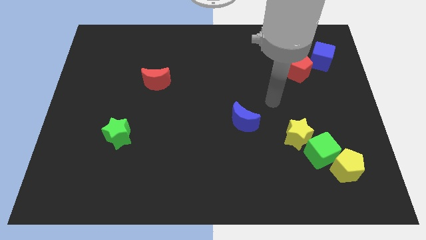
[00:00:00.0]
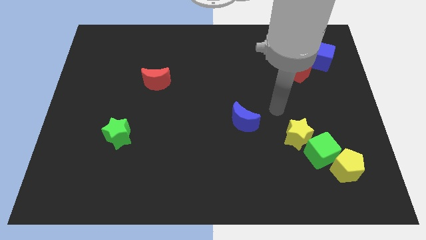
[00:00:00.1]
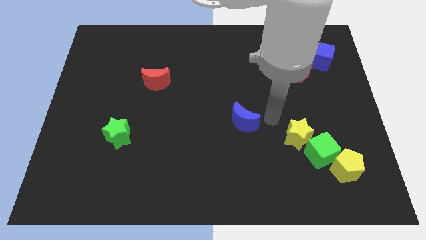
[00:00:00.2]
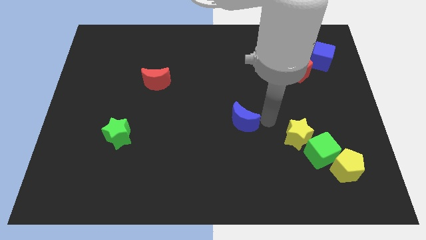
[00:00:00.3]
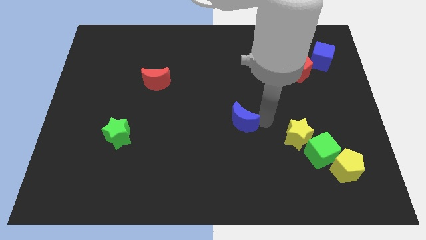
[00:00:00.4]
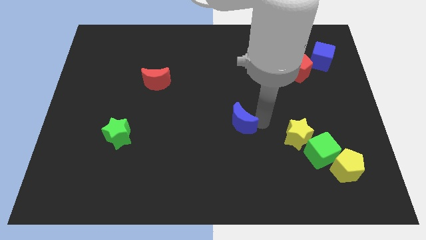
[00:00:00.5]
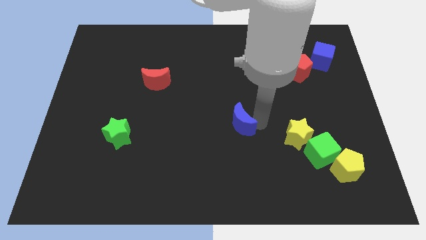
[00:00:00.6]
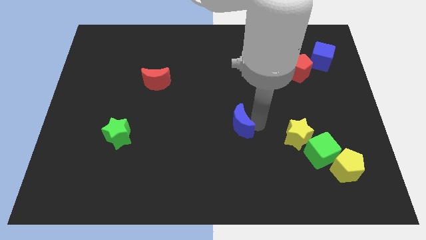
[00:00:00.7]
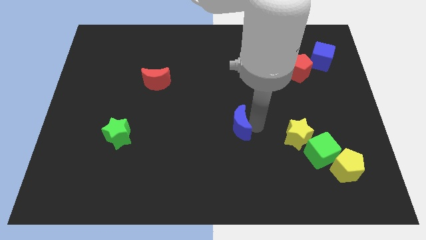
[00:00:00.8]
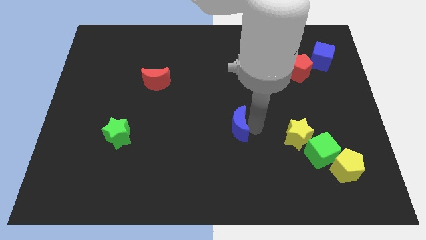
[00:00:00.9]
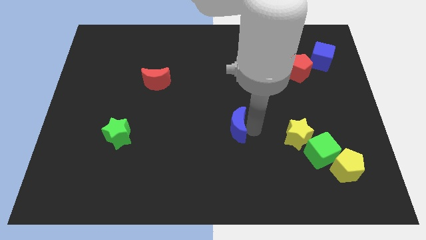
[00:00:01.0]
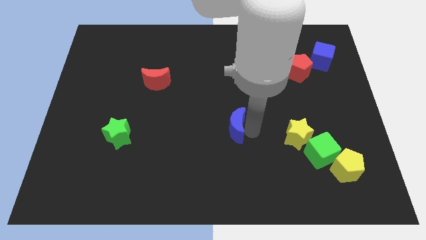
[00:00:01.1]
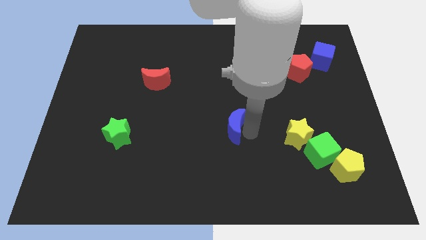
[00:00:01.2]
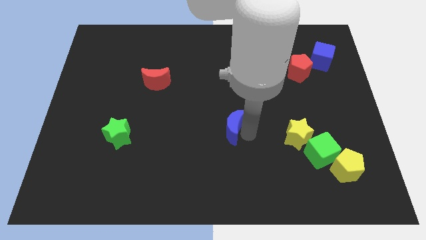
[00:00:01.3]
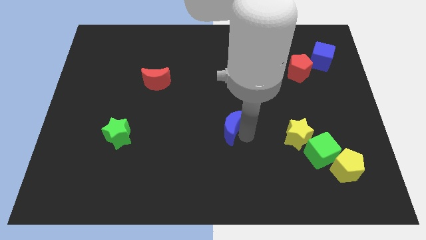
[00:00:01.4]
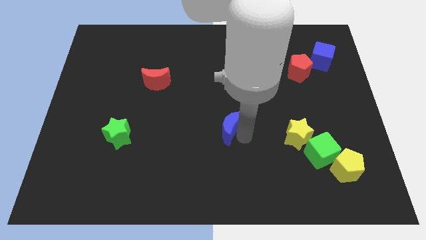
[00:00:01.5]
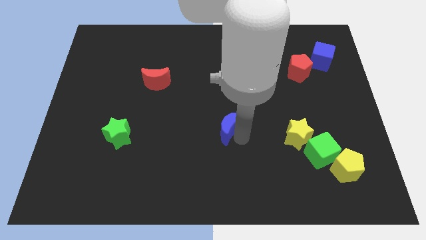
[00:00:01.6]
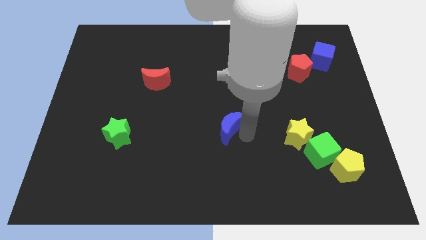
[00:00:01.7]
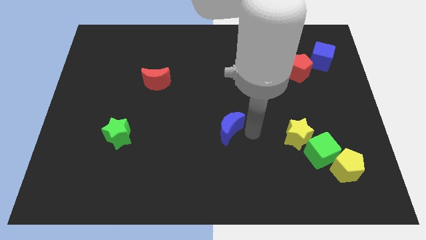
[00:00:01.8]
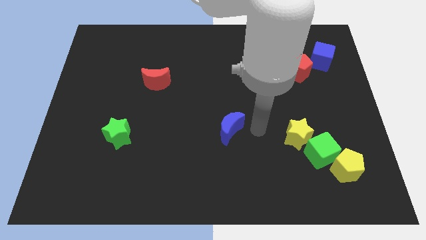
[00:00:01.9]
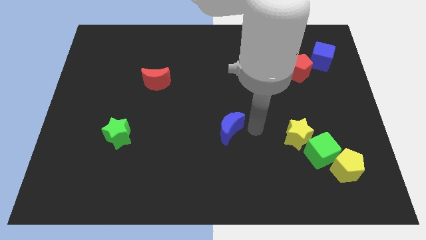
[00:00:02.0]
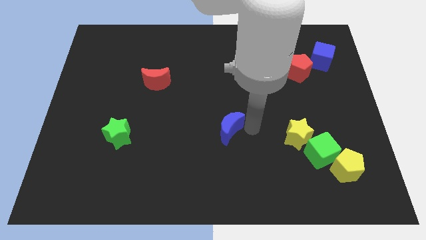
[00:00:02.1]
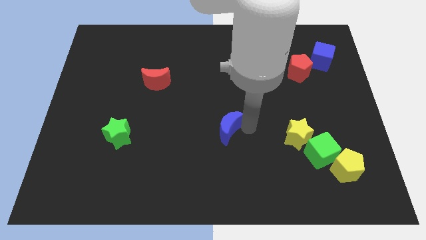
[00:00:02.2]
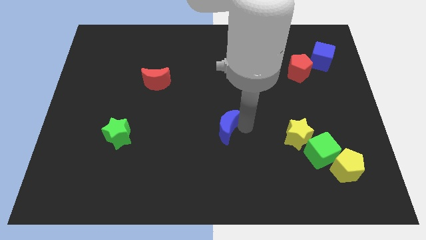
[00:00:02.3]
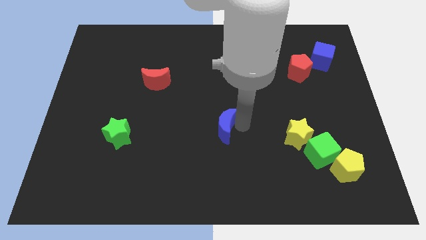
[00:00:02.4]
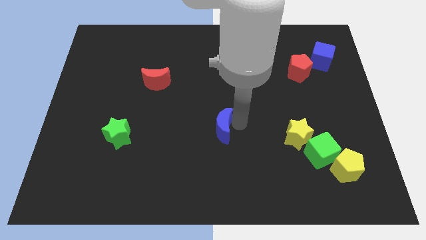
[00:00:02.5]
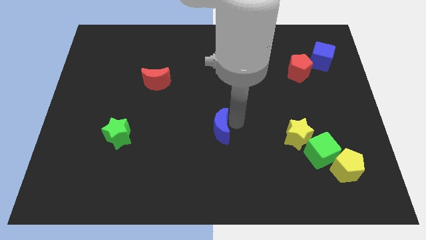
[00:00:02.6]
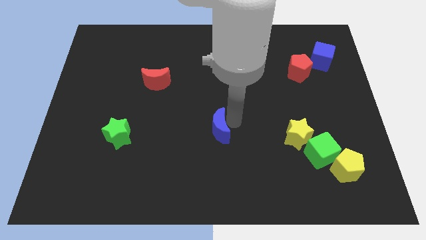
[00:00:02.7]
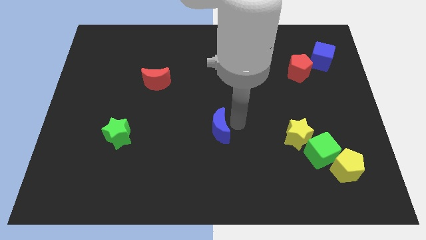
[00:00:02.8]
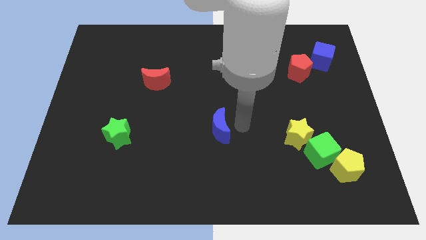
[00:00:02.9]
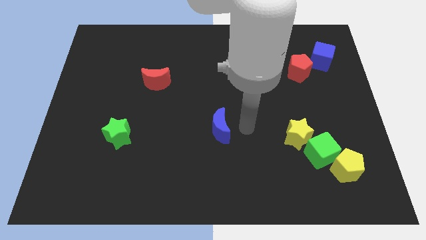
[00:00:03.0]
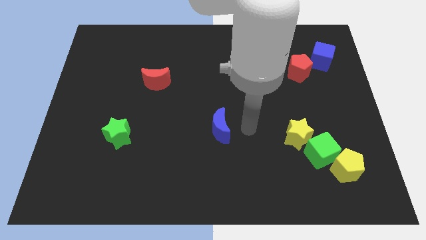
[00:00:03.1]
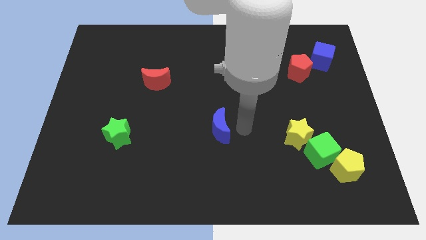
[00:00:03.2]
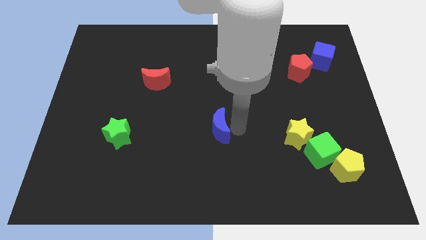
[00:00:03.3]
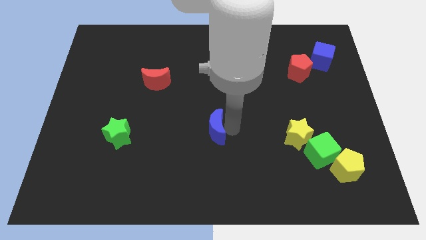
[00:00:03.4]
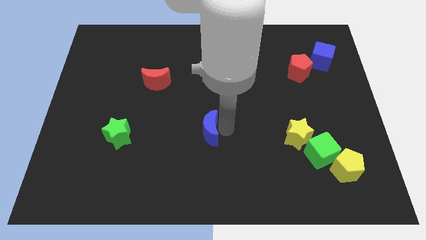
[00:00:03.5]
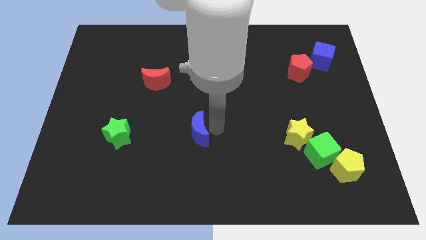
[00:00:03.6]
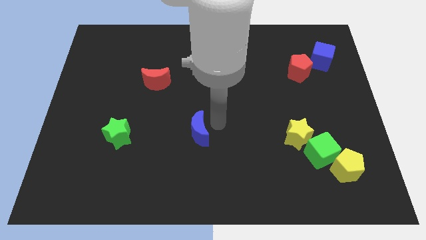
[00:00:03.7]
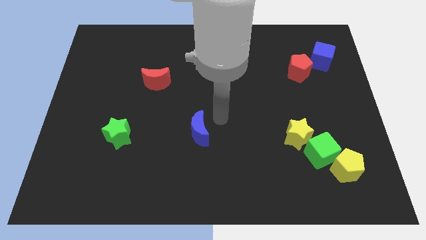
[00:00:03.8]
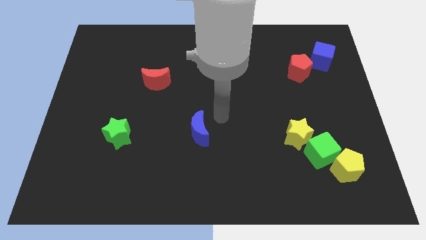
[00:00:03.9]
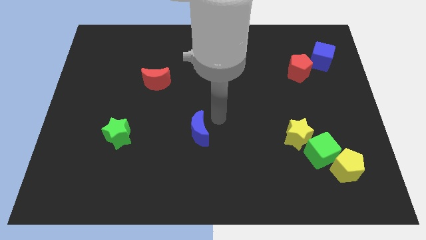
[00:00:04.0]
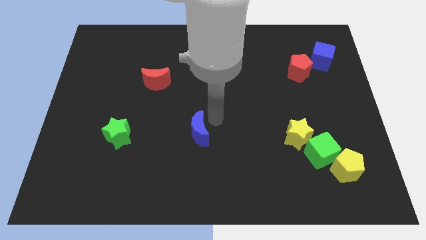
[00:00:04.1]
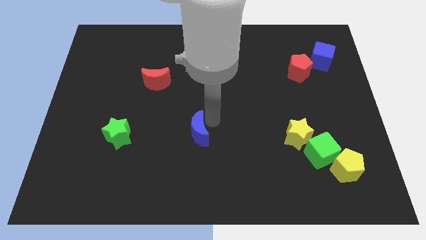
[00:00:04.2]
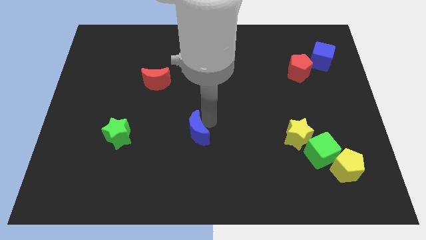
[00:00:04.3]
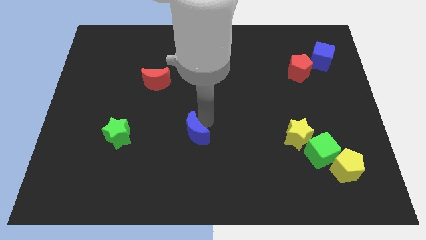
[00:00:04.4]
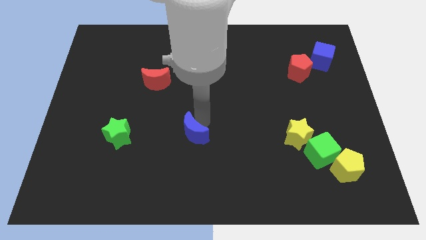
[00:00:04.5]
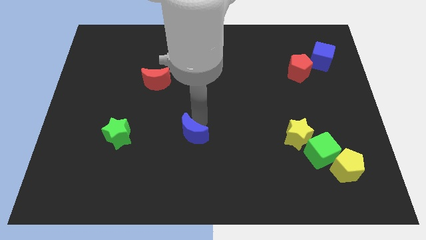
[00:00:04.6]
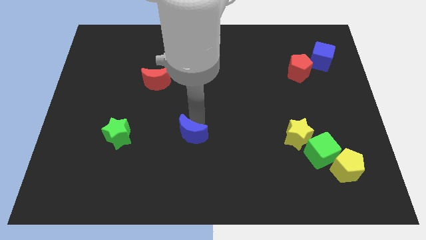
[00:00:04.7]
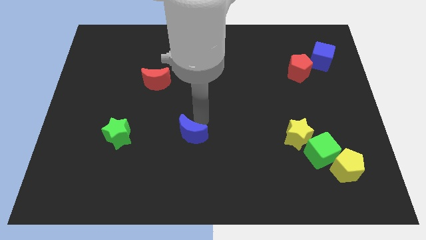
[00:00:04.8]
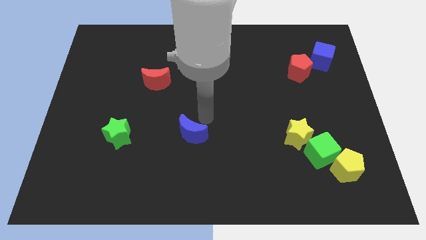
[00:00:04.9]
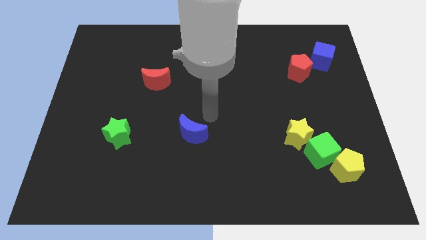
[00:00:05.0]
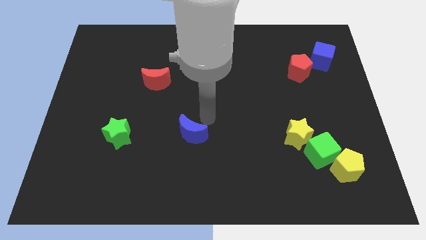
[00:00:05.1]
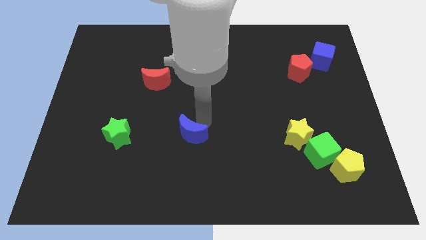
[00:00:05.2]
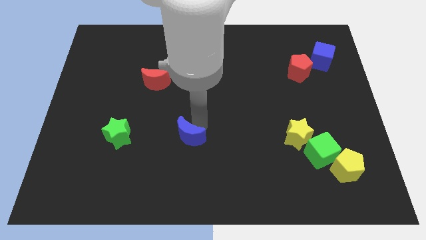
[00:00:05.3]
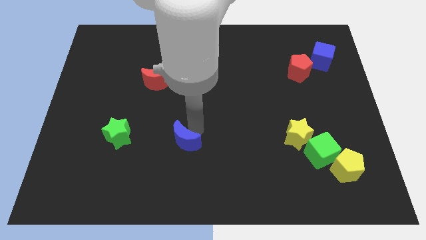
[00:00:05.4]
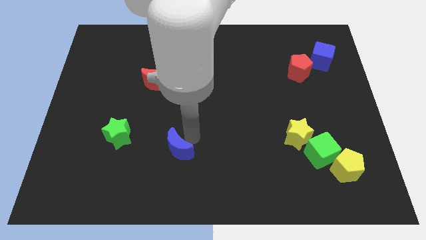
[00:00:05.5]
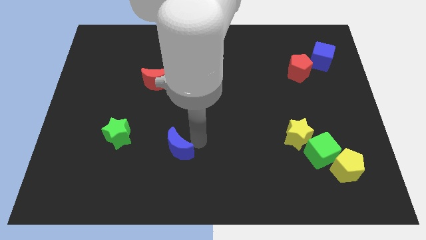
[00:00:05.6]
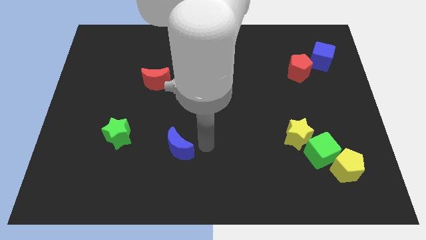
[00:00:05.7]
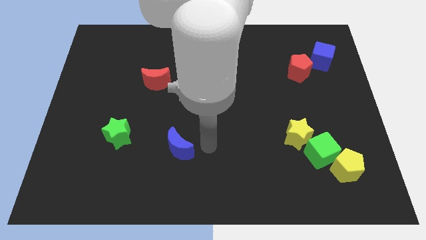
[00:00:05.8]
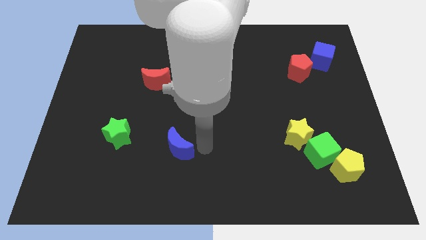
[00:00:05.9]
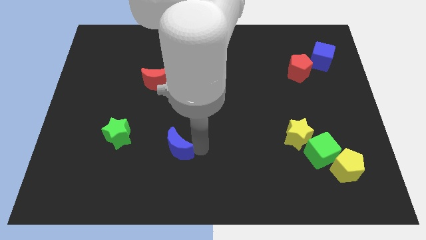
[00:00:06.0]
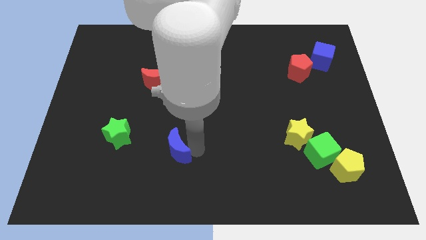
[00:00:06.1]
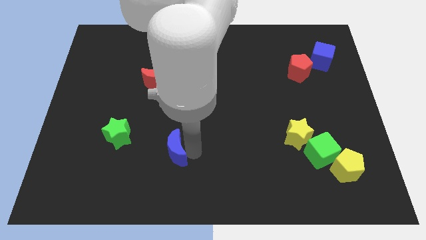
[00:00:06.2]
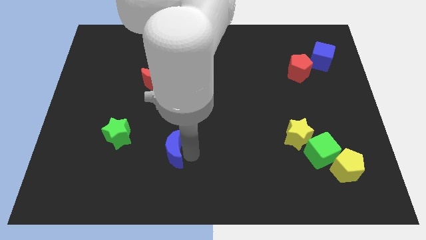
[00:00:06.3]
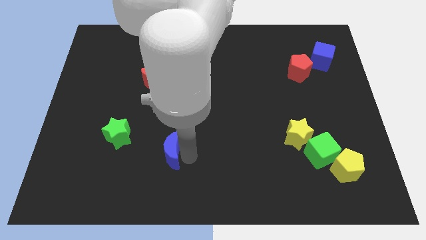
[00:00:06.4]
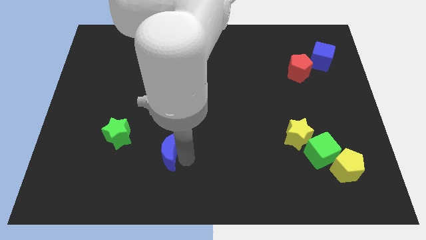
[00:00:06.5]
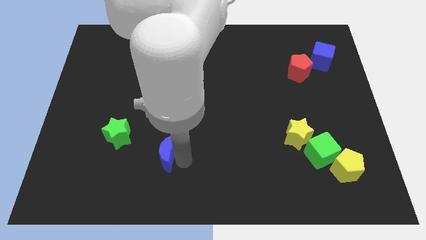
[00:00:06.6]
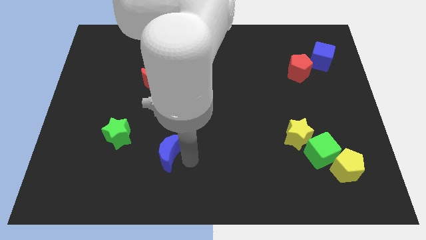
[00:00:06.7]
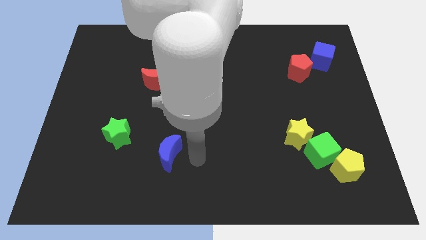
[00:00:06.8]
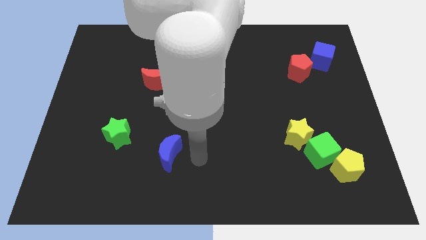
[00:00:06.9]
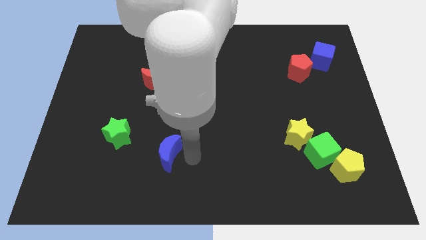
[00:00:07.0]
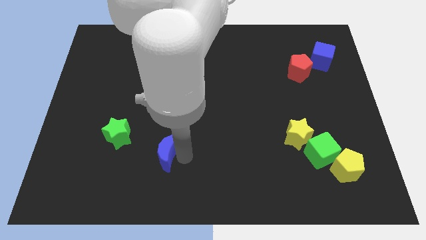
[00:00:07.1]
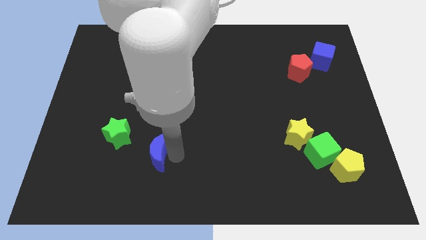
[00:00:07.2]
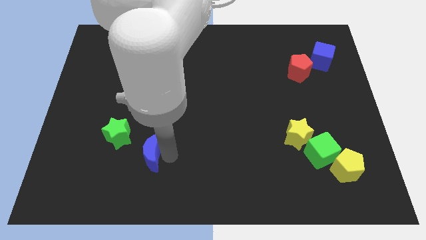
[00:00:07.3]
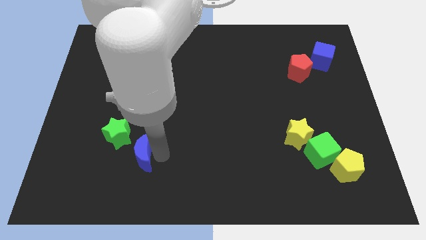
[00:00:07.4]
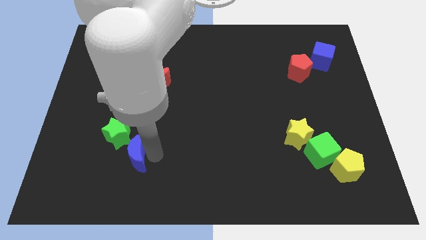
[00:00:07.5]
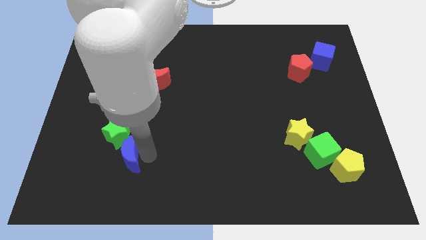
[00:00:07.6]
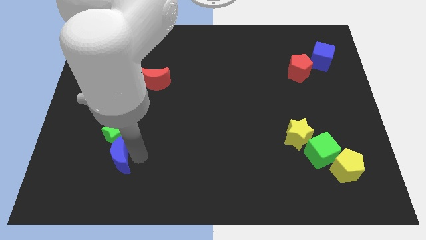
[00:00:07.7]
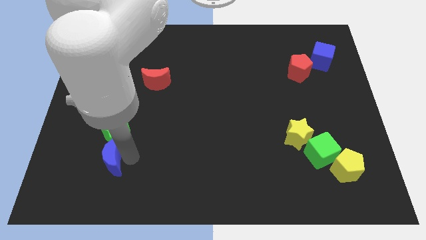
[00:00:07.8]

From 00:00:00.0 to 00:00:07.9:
slide the blue moon to the bottom left of the green star
